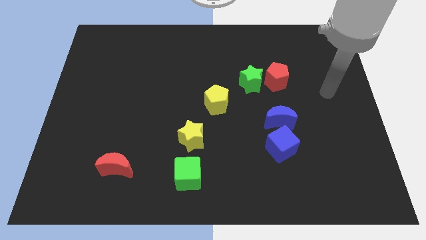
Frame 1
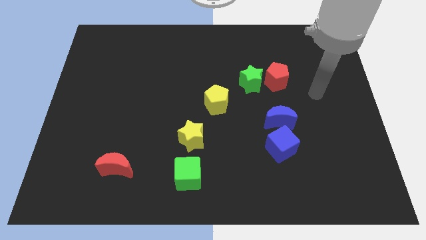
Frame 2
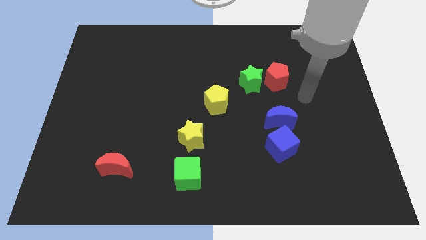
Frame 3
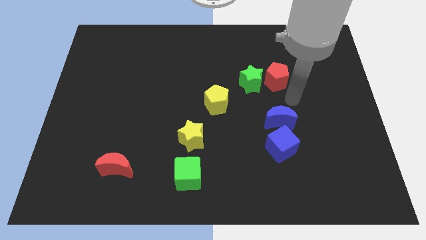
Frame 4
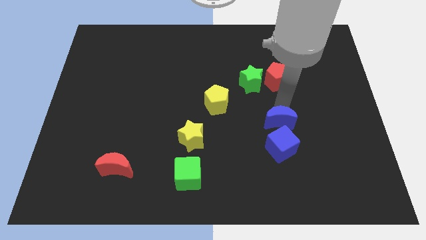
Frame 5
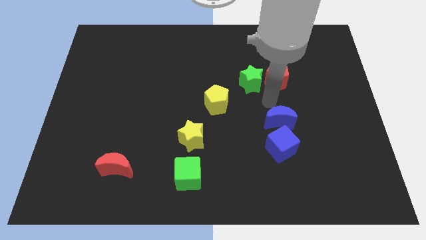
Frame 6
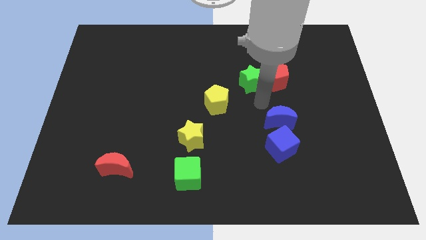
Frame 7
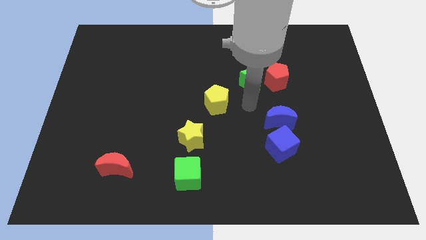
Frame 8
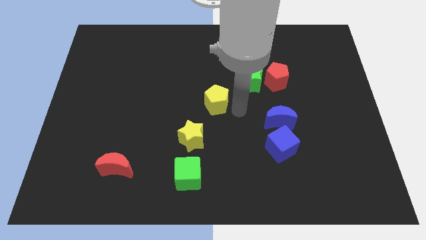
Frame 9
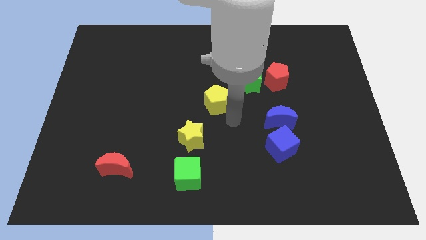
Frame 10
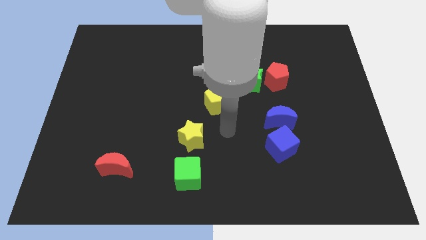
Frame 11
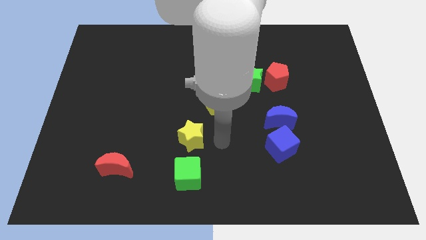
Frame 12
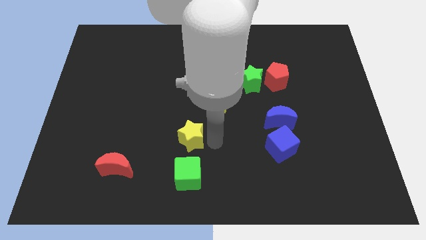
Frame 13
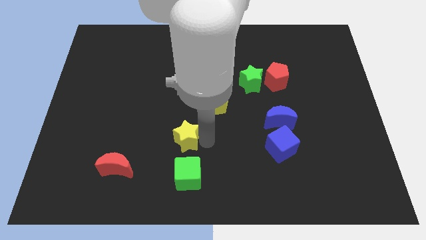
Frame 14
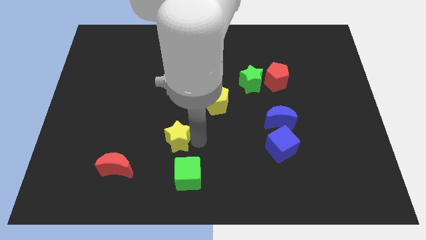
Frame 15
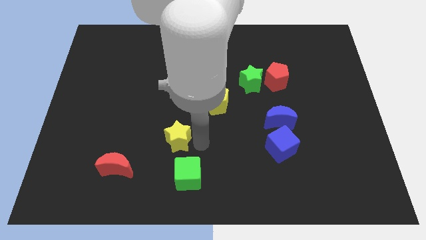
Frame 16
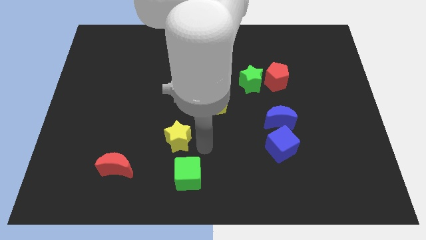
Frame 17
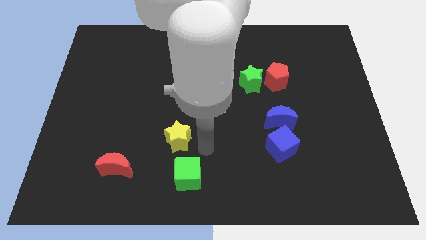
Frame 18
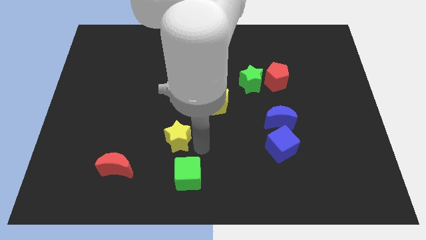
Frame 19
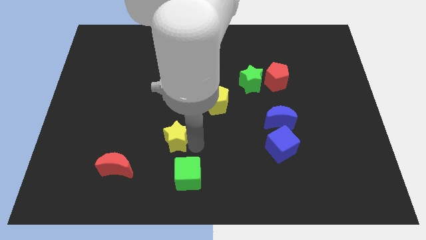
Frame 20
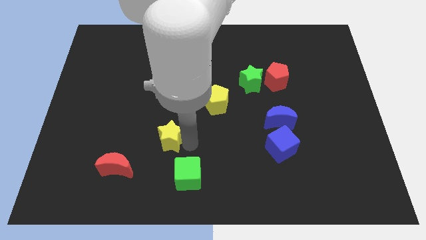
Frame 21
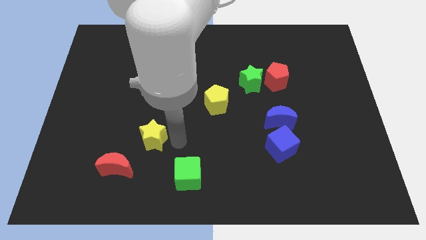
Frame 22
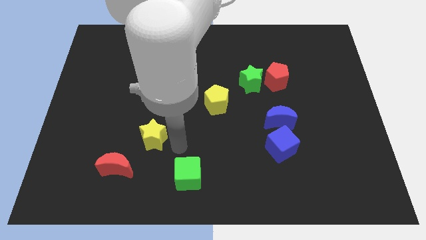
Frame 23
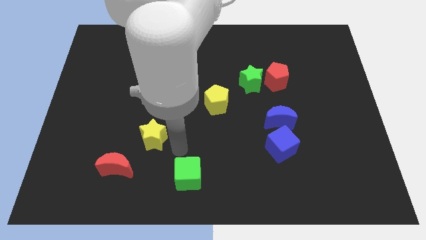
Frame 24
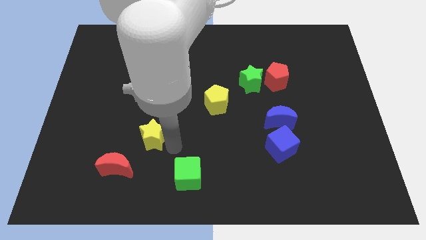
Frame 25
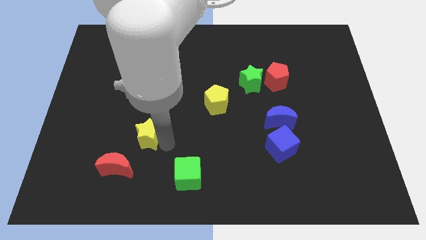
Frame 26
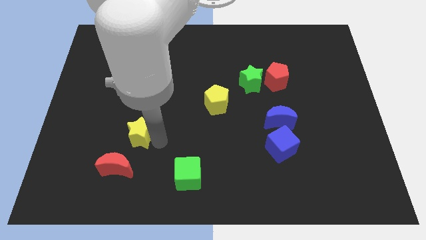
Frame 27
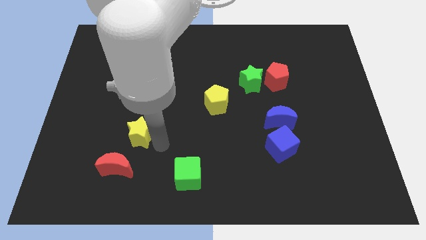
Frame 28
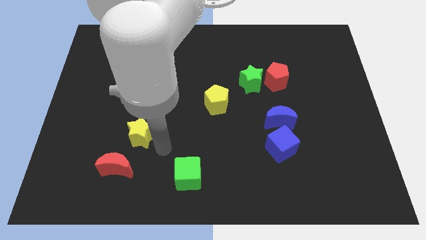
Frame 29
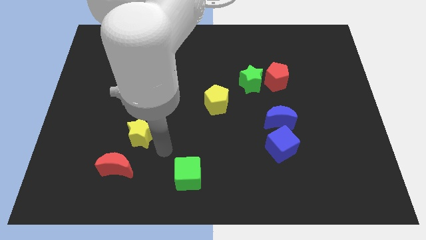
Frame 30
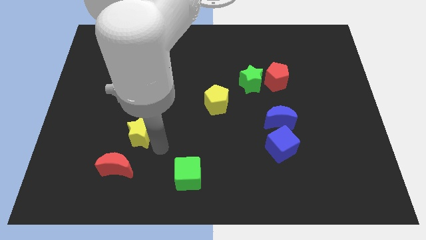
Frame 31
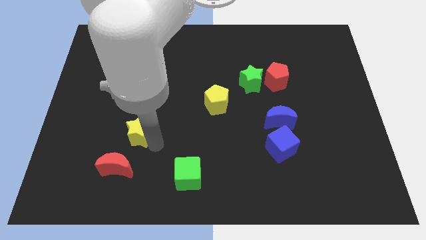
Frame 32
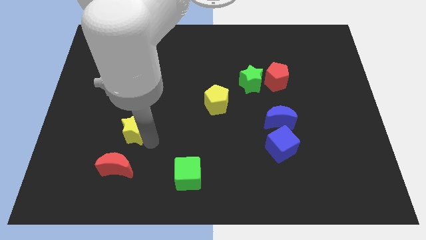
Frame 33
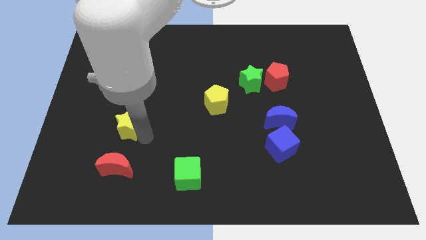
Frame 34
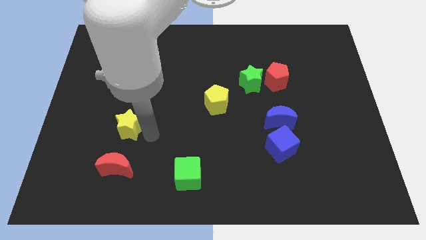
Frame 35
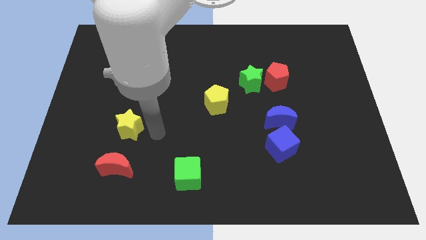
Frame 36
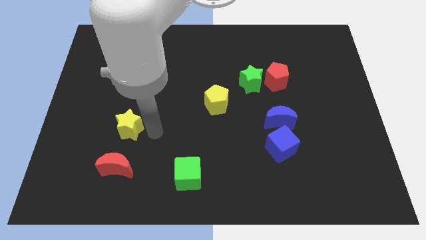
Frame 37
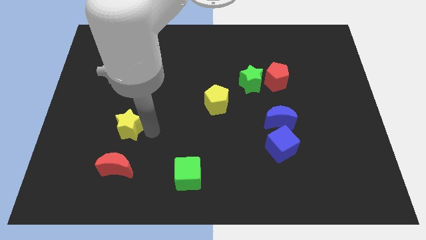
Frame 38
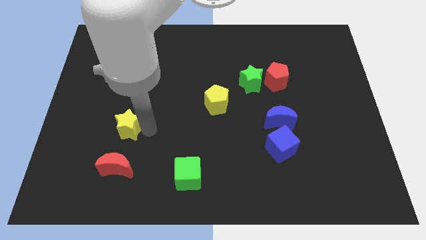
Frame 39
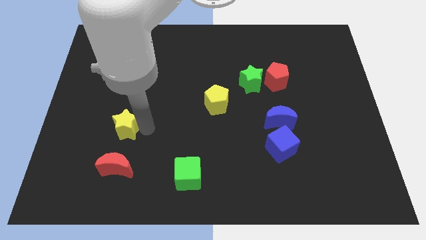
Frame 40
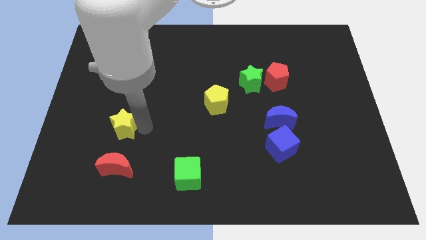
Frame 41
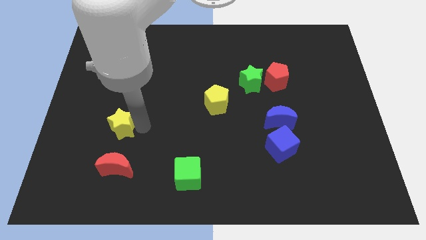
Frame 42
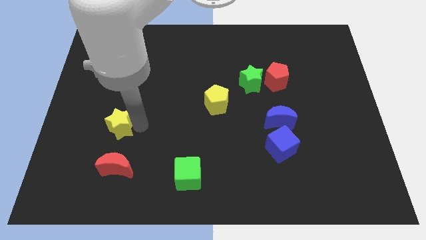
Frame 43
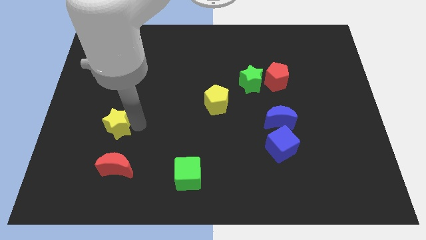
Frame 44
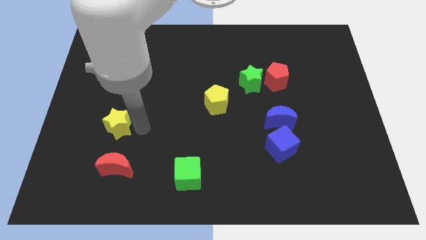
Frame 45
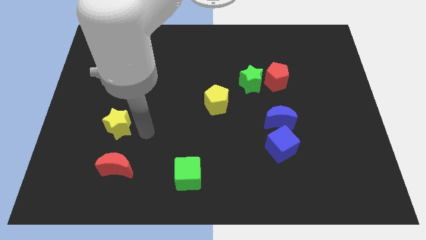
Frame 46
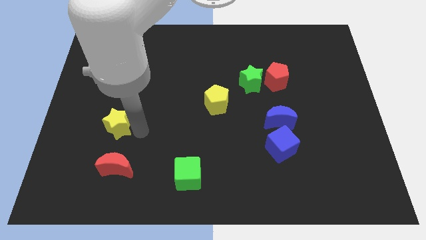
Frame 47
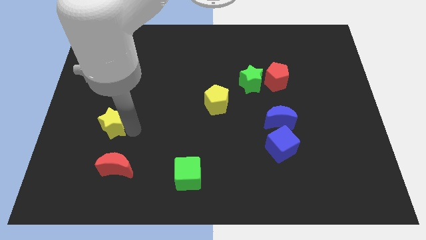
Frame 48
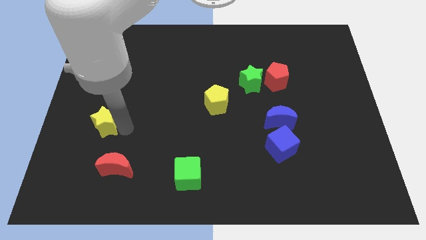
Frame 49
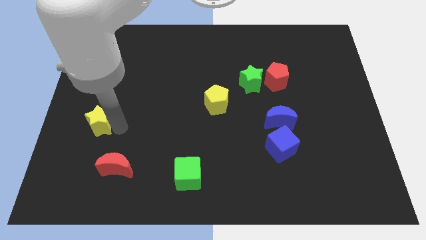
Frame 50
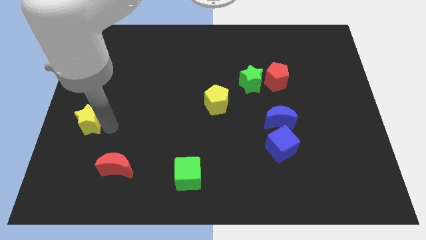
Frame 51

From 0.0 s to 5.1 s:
slide the yellow star to the left side of the board

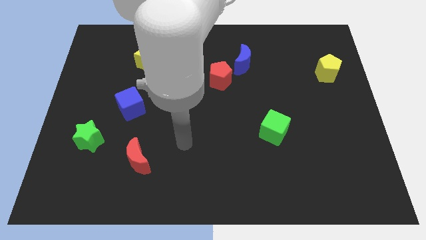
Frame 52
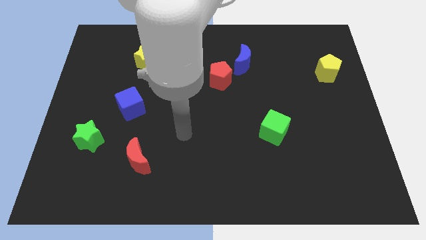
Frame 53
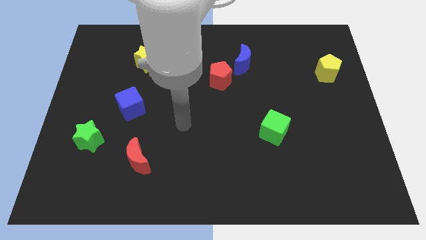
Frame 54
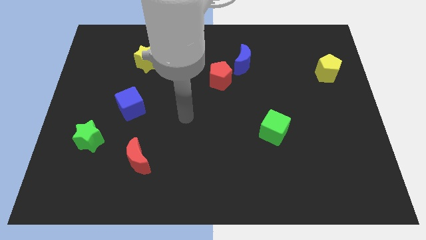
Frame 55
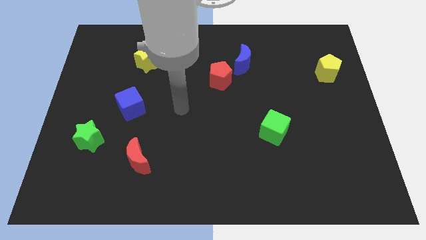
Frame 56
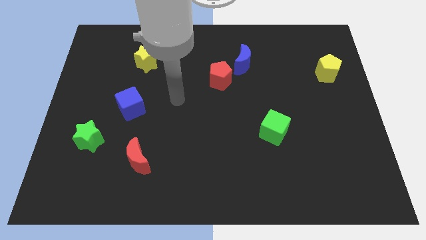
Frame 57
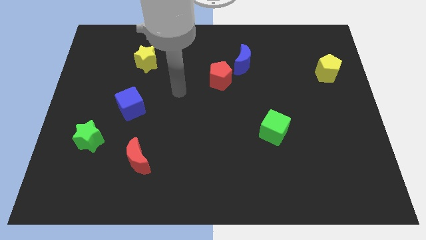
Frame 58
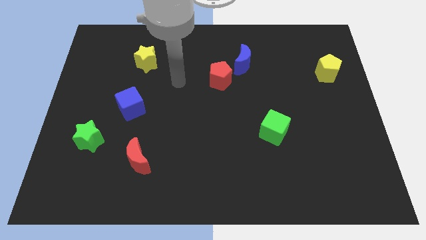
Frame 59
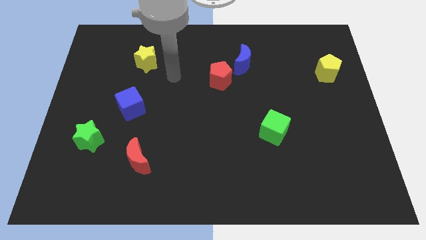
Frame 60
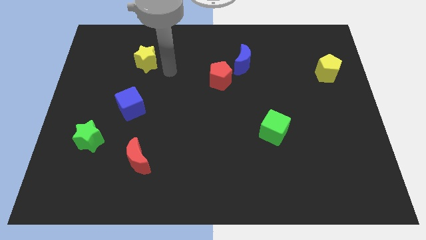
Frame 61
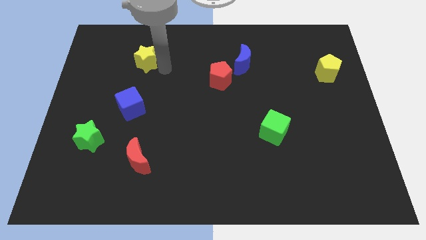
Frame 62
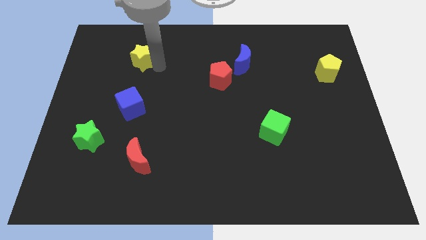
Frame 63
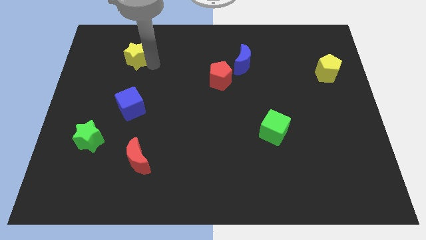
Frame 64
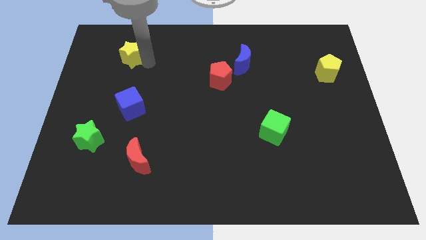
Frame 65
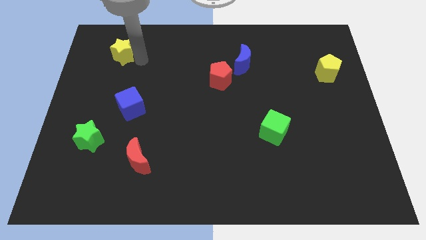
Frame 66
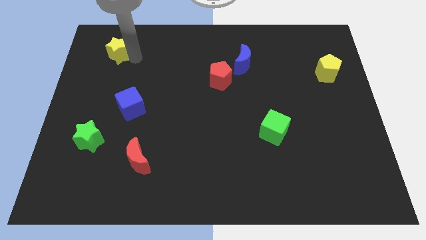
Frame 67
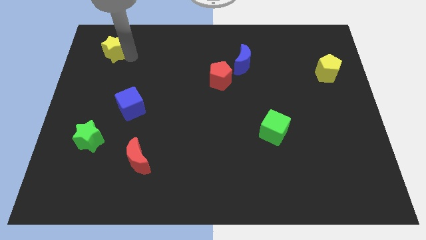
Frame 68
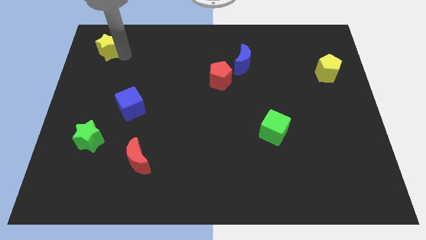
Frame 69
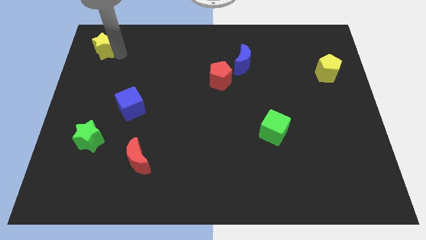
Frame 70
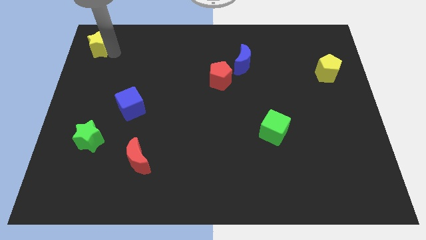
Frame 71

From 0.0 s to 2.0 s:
move the yellow star to the top left
